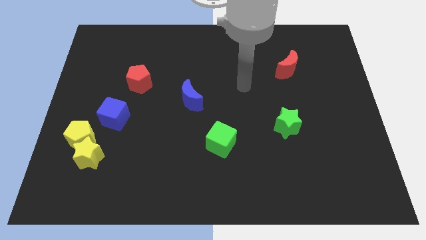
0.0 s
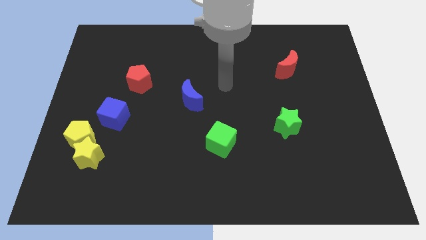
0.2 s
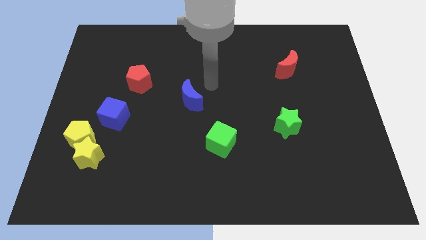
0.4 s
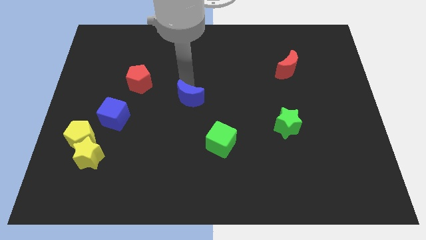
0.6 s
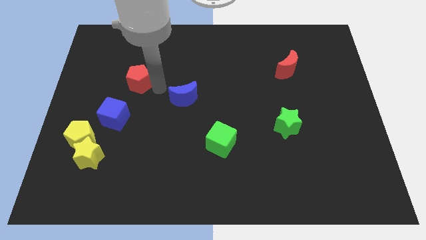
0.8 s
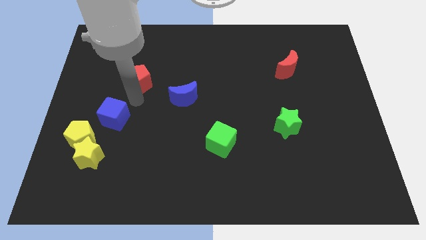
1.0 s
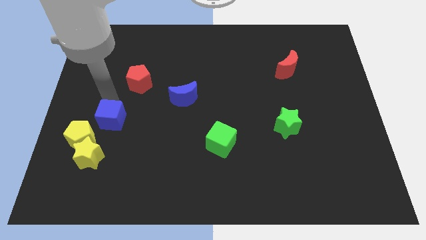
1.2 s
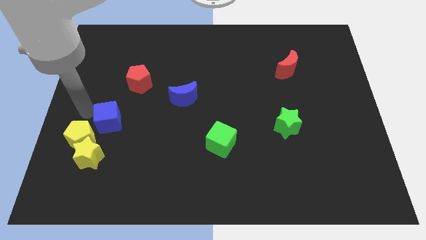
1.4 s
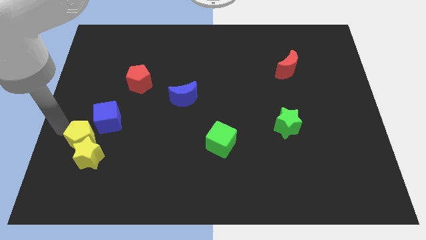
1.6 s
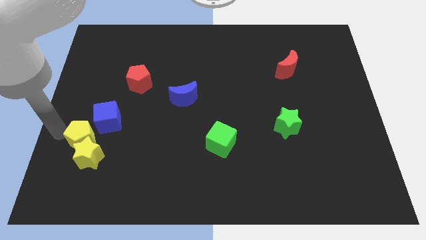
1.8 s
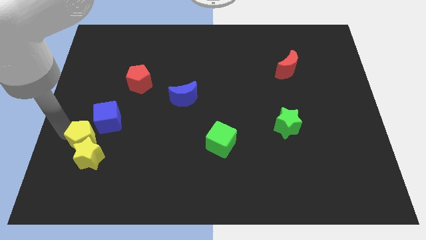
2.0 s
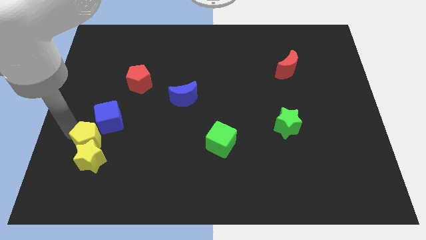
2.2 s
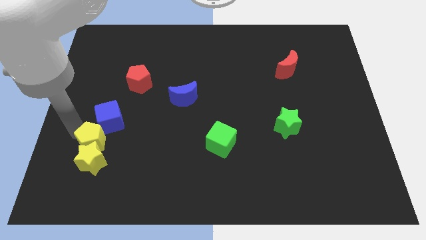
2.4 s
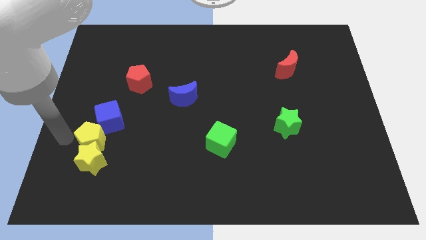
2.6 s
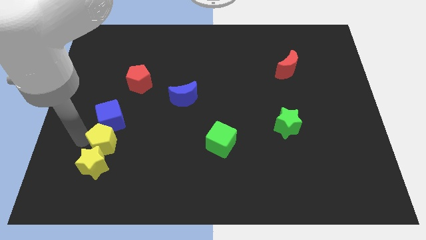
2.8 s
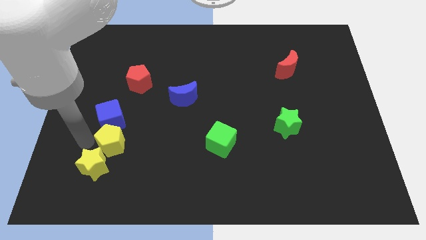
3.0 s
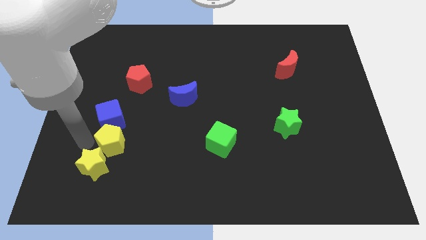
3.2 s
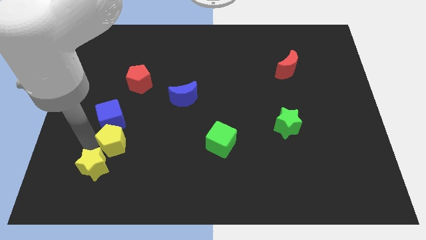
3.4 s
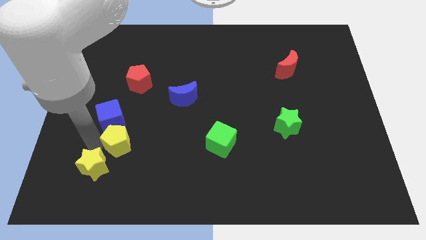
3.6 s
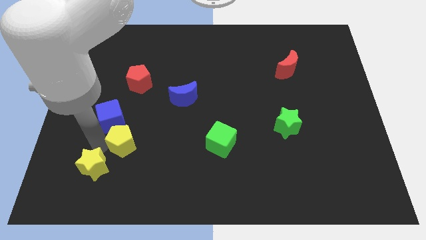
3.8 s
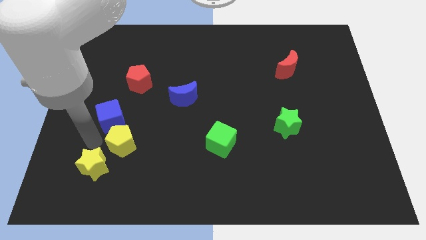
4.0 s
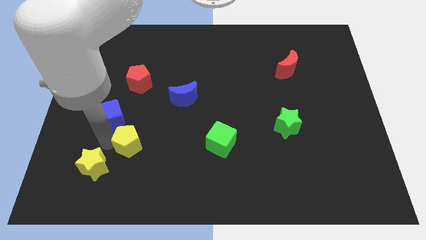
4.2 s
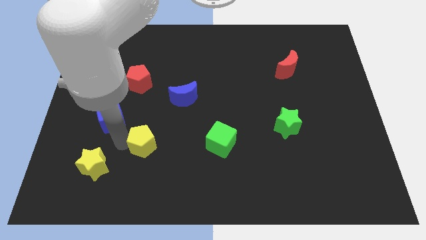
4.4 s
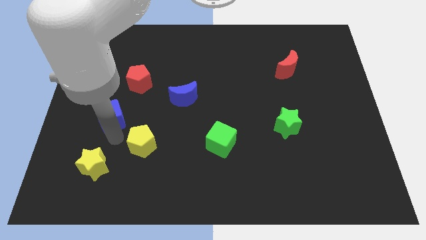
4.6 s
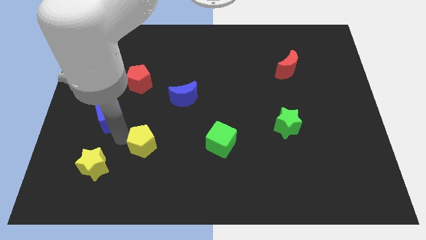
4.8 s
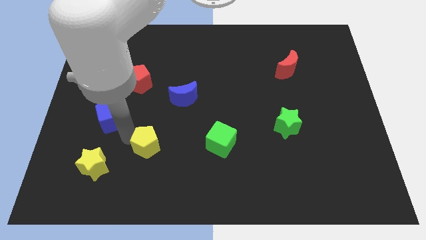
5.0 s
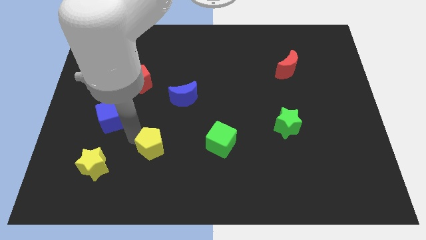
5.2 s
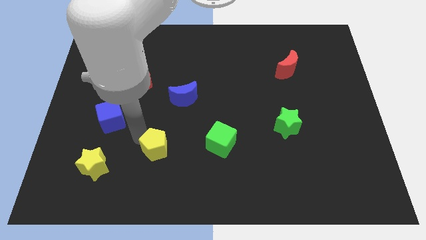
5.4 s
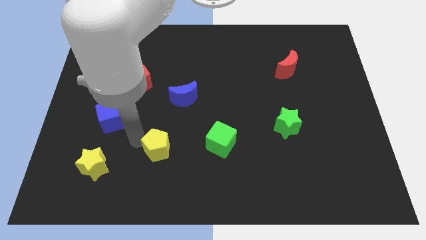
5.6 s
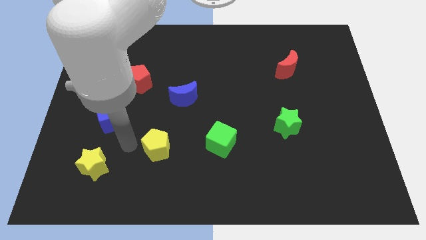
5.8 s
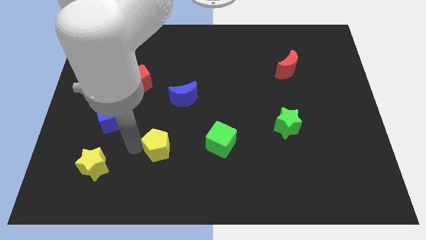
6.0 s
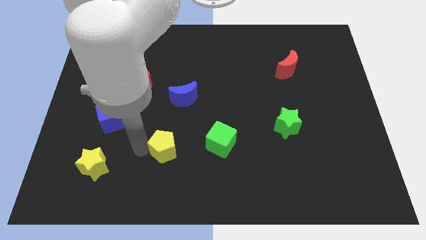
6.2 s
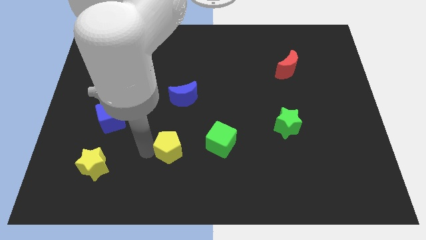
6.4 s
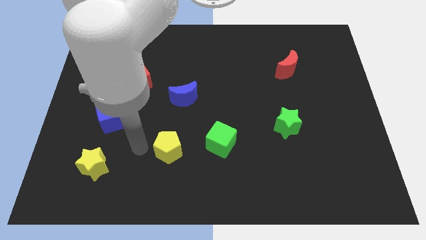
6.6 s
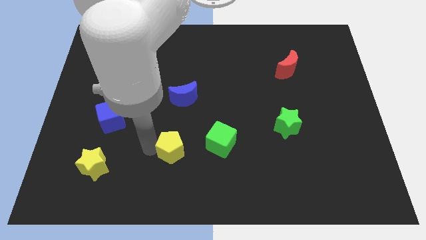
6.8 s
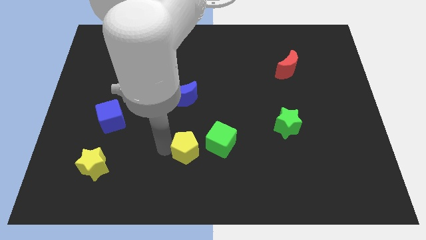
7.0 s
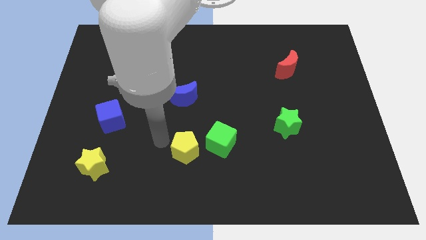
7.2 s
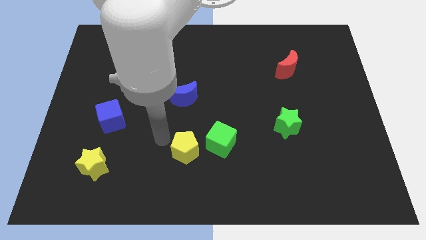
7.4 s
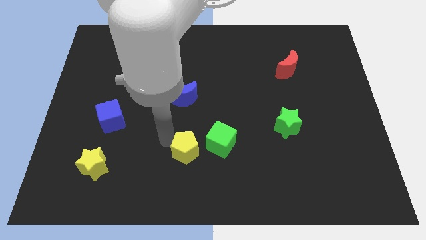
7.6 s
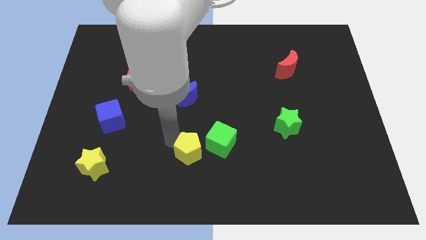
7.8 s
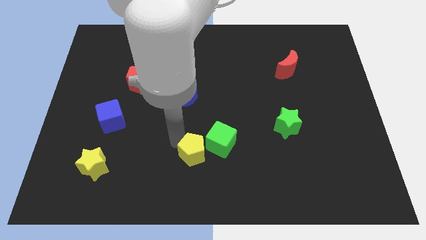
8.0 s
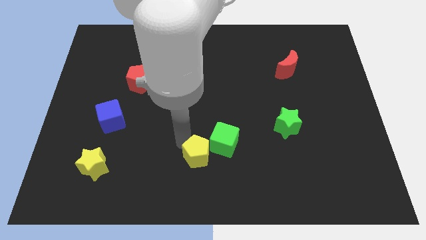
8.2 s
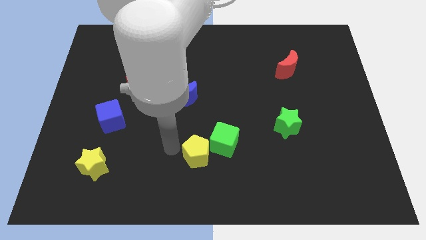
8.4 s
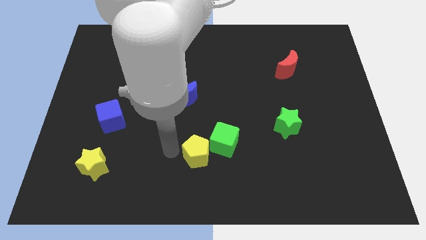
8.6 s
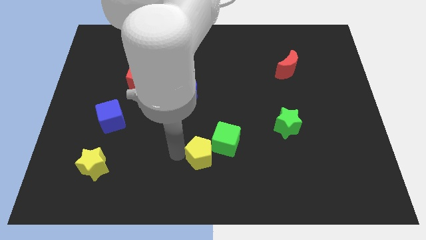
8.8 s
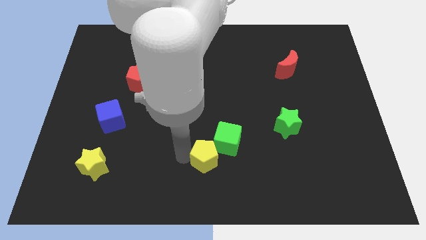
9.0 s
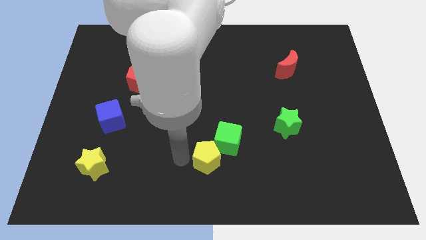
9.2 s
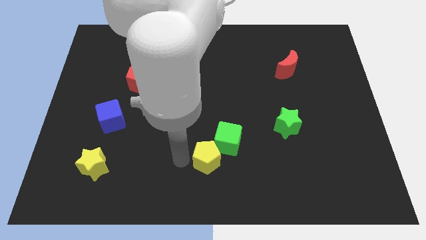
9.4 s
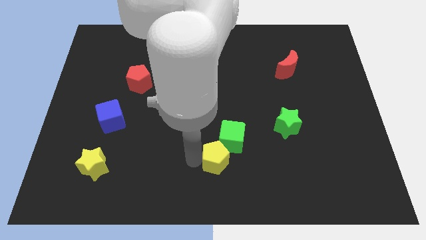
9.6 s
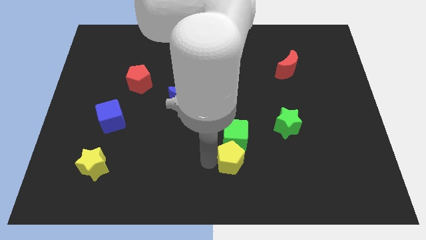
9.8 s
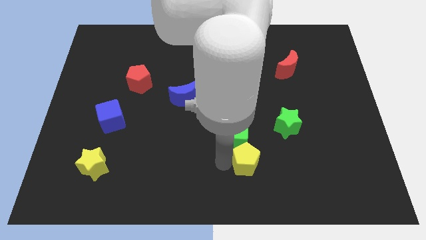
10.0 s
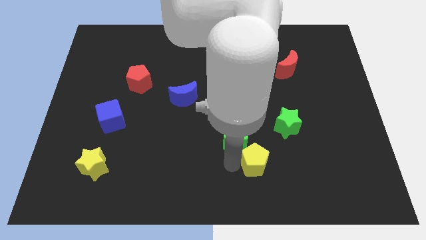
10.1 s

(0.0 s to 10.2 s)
push the yellow pentagon to the bottom left side of the green star

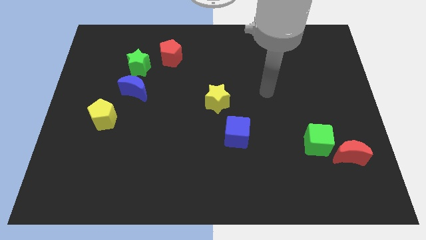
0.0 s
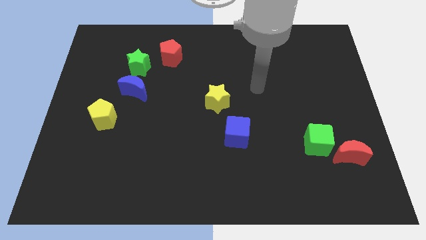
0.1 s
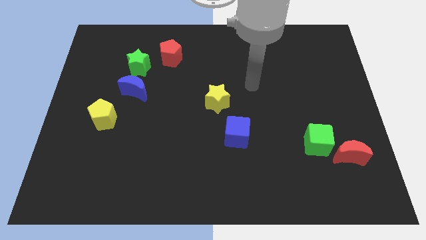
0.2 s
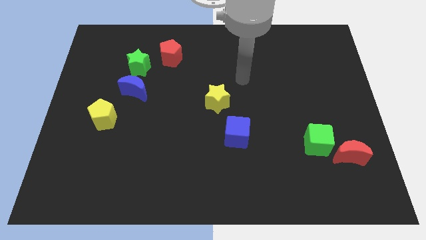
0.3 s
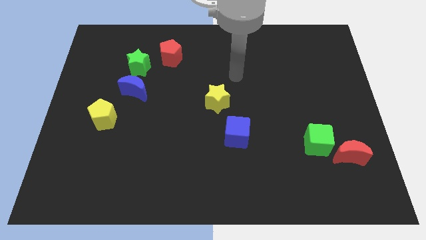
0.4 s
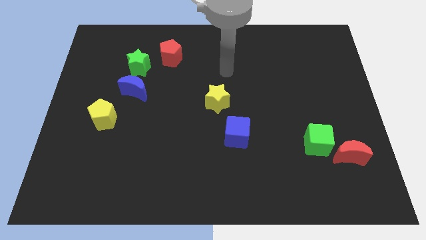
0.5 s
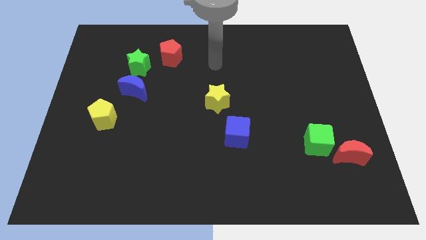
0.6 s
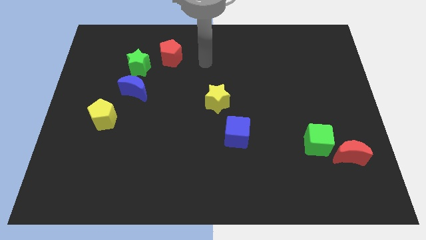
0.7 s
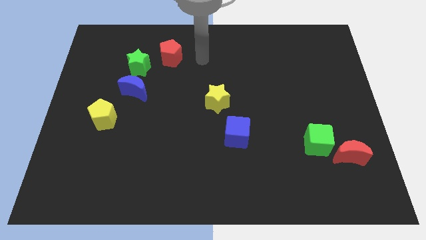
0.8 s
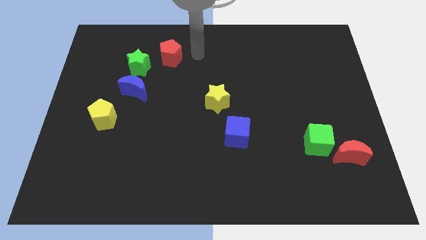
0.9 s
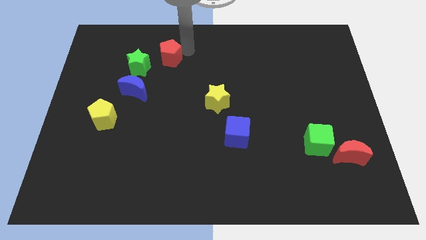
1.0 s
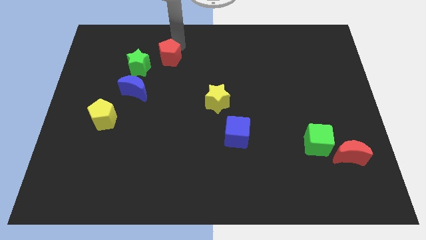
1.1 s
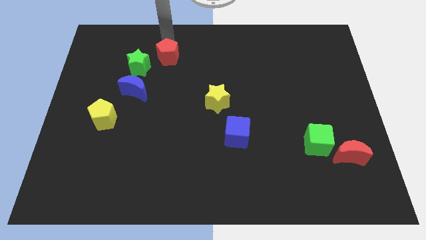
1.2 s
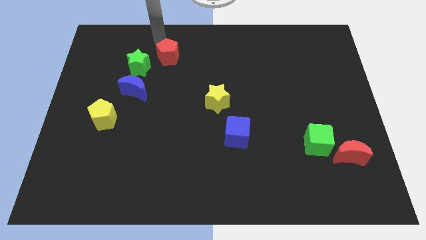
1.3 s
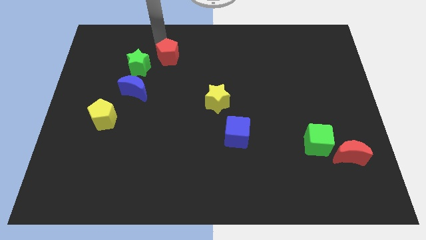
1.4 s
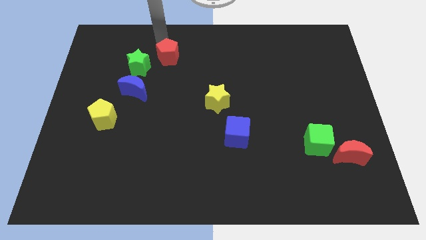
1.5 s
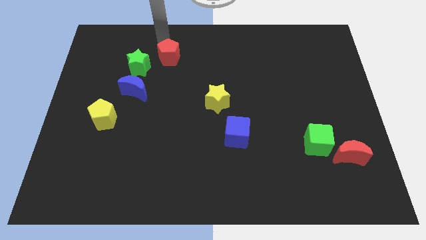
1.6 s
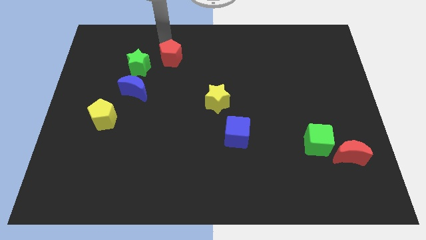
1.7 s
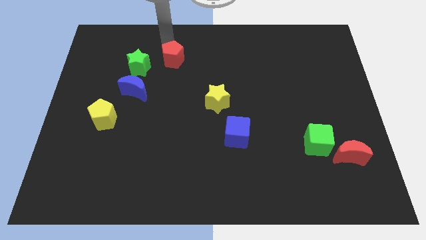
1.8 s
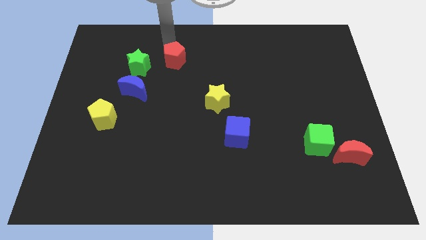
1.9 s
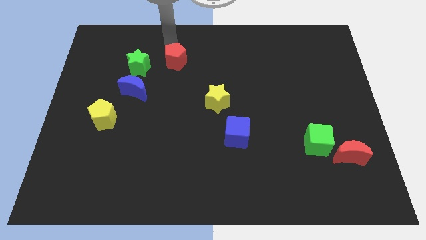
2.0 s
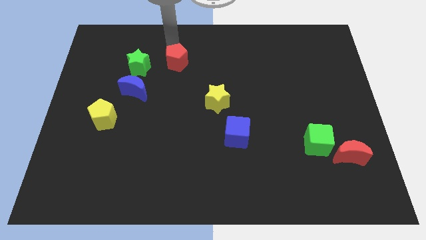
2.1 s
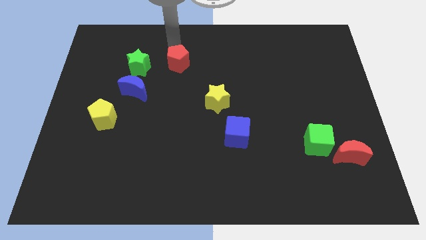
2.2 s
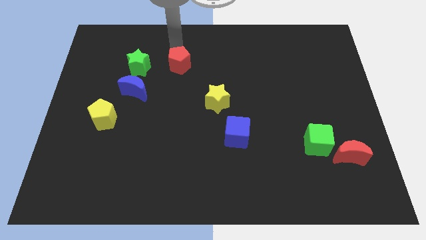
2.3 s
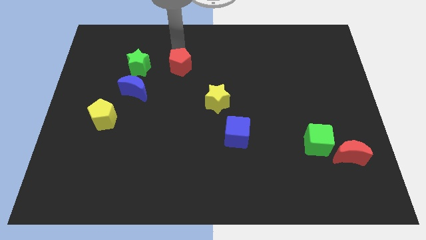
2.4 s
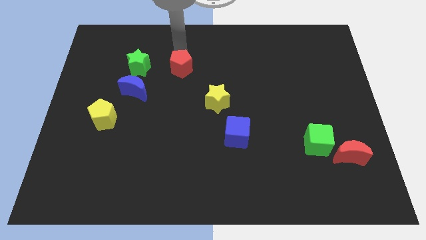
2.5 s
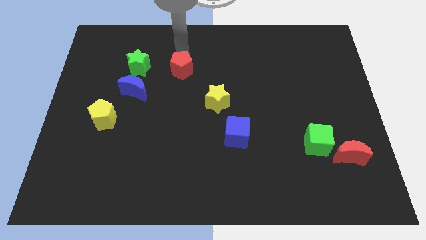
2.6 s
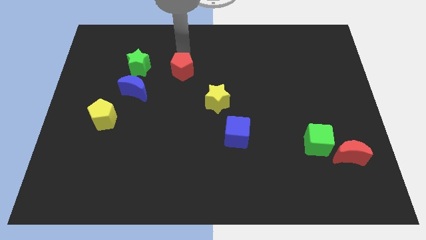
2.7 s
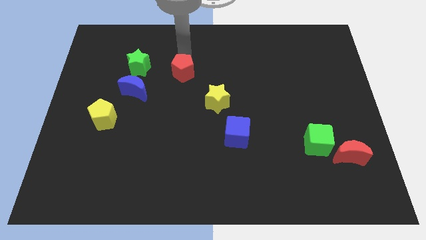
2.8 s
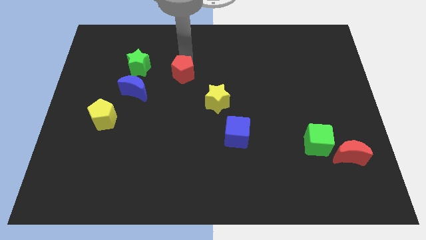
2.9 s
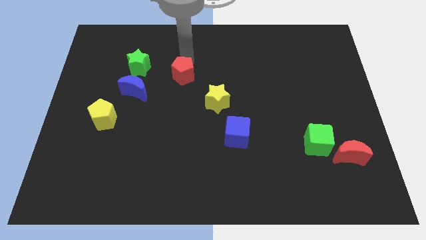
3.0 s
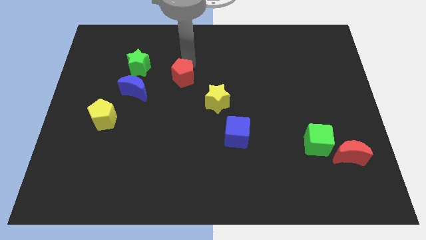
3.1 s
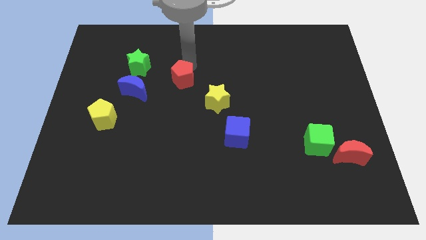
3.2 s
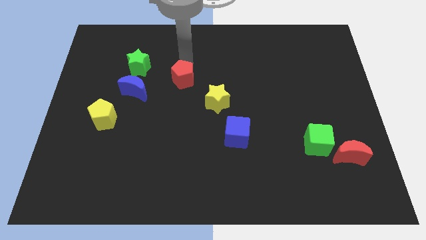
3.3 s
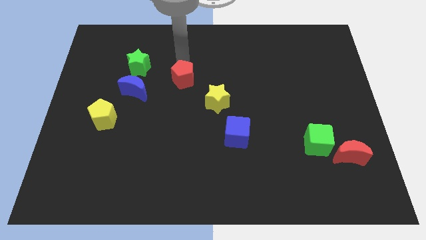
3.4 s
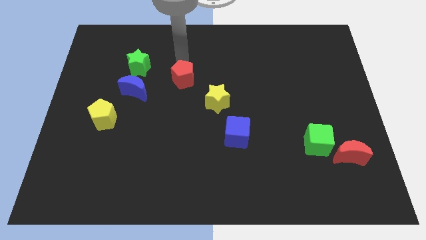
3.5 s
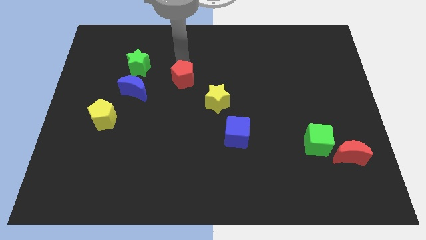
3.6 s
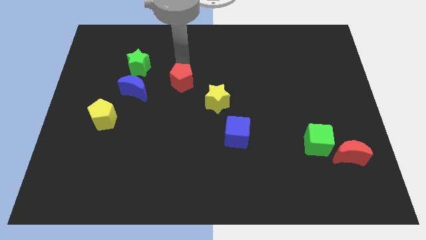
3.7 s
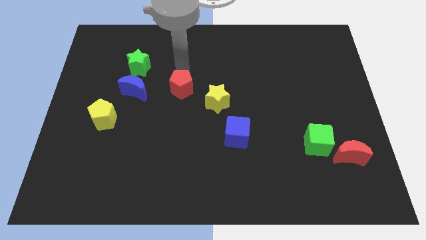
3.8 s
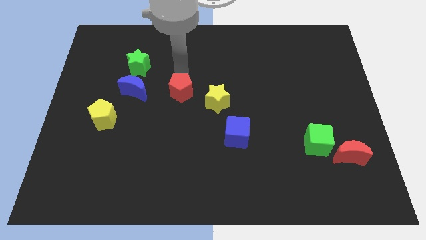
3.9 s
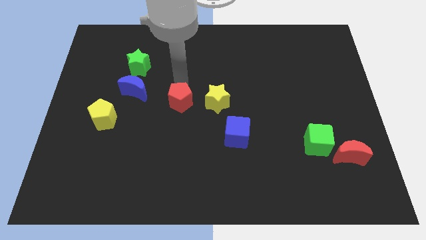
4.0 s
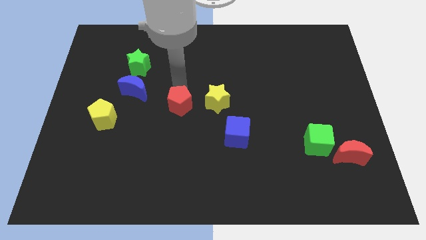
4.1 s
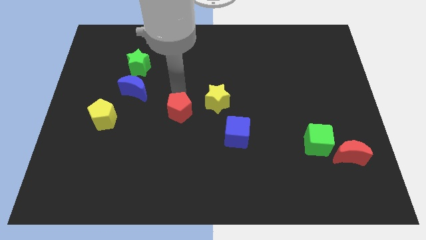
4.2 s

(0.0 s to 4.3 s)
put the red pentagon to the bottom left side of the yellow star
